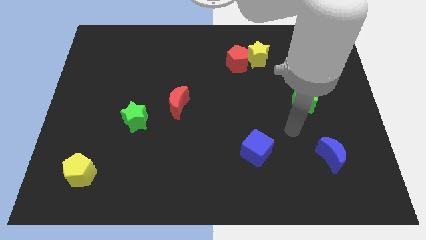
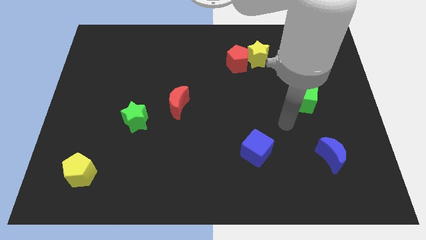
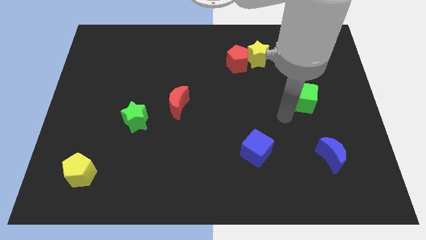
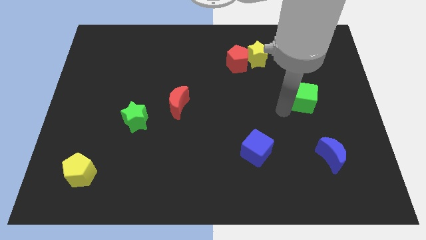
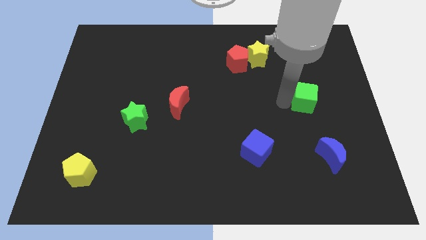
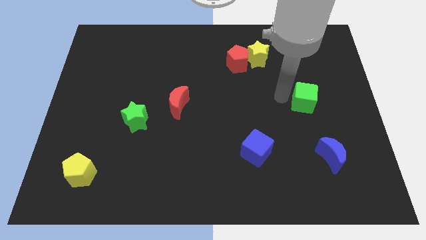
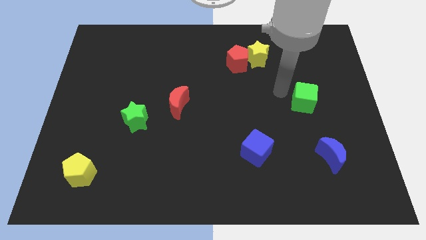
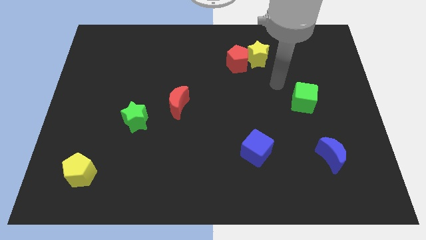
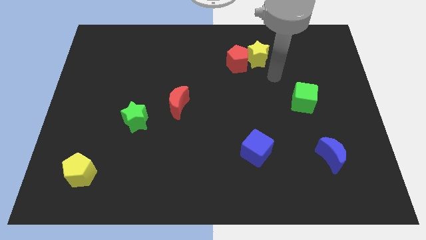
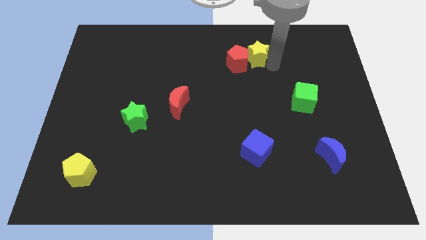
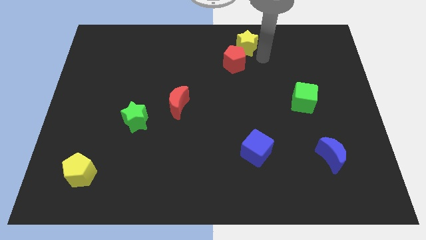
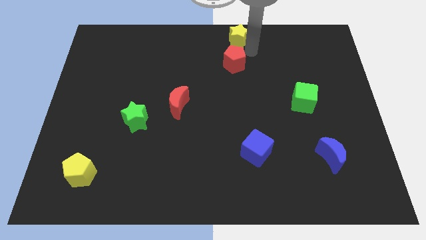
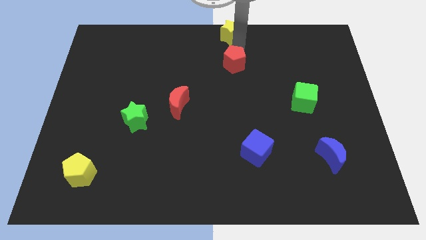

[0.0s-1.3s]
separate the red pentagon from the yellow star

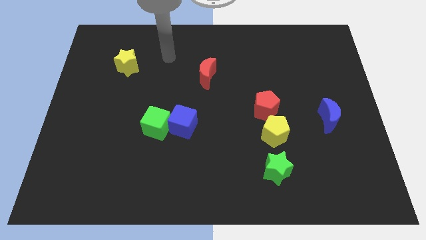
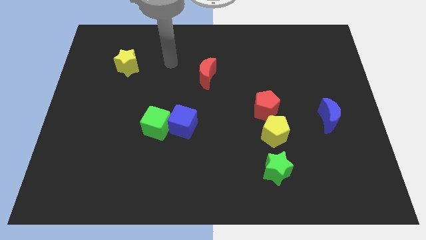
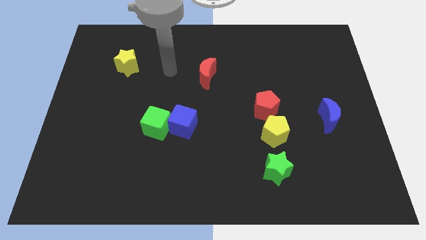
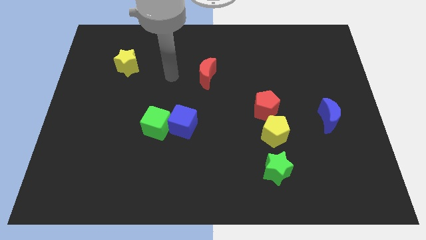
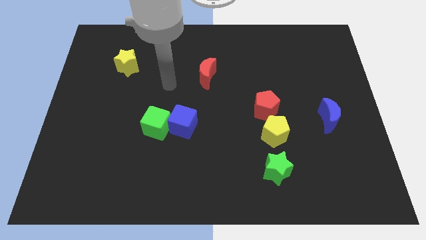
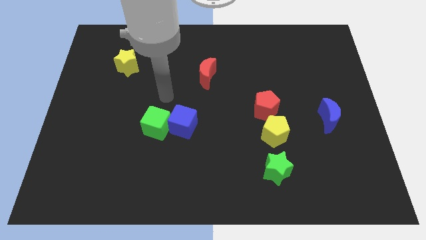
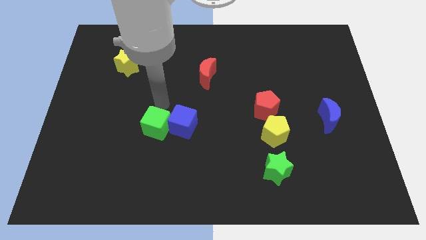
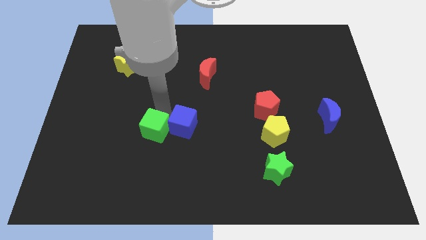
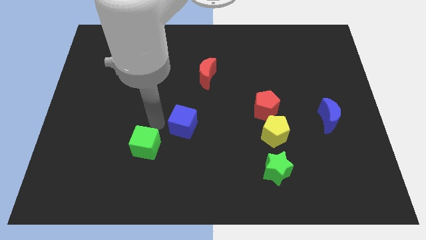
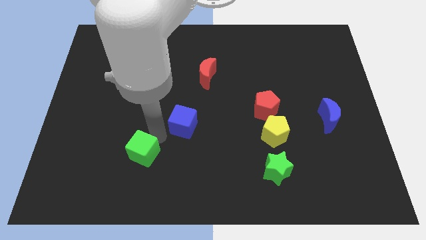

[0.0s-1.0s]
move the blue cube away from the green cube

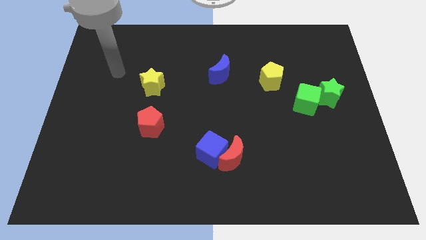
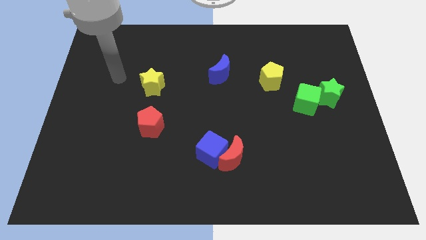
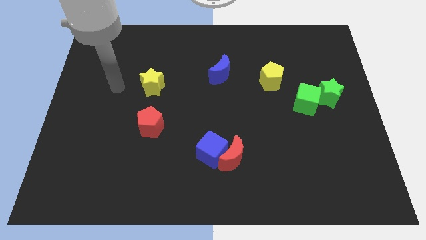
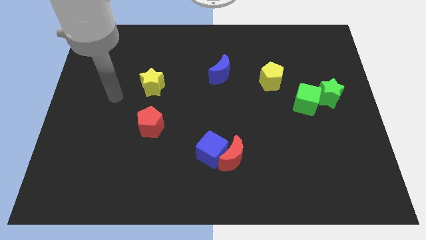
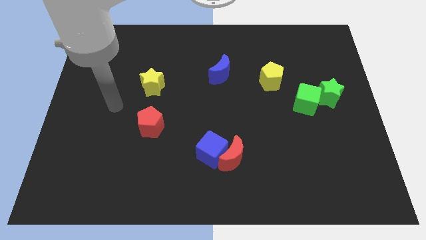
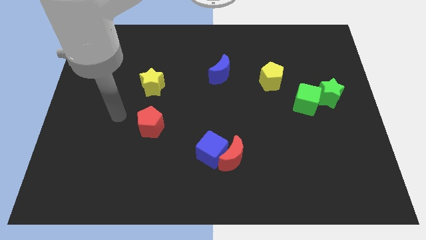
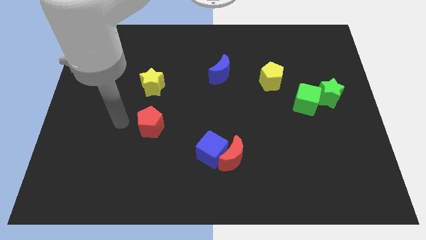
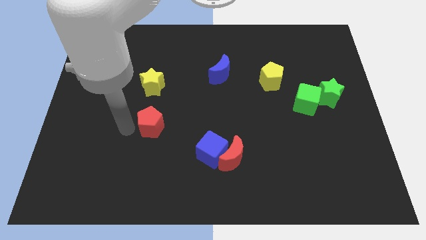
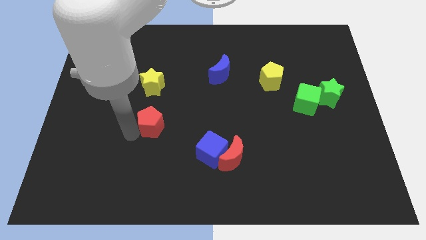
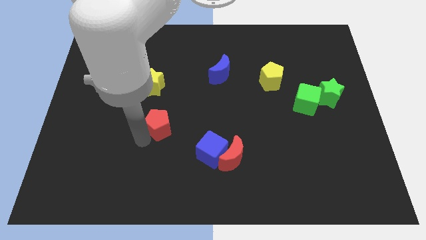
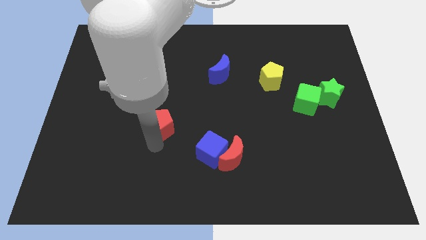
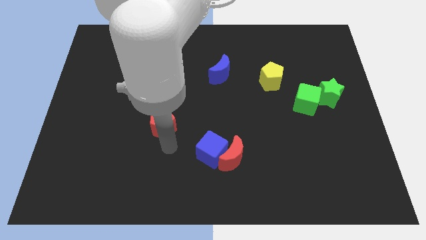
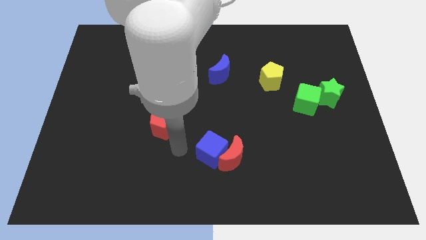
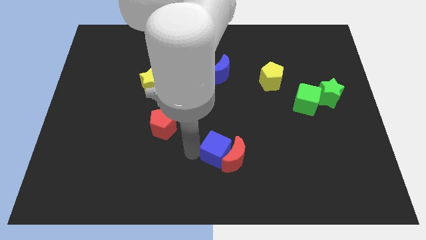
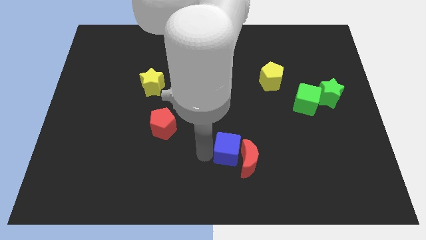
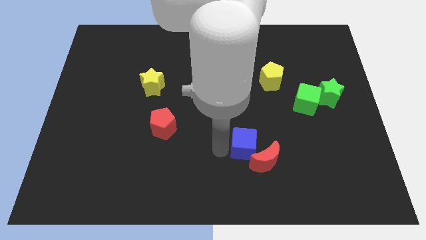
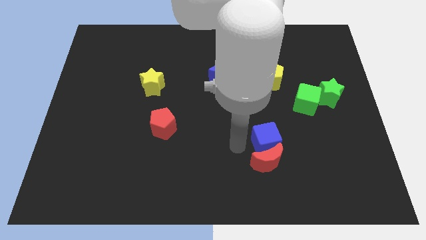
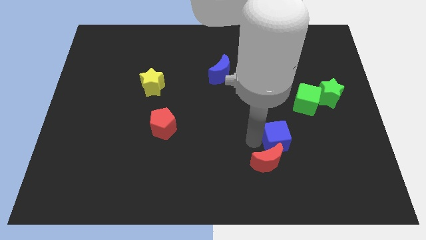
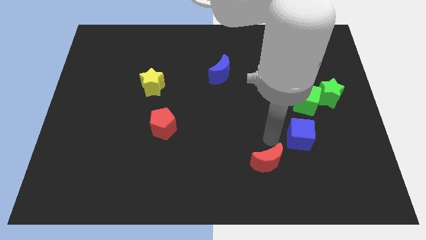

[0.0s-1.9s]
pull the red moon apart from the blue cube

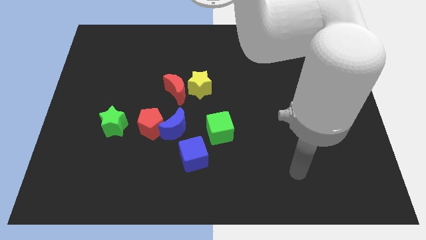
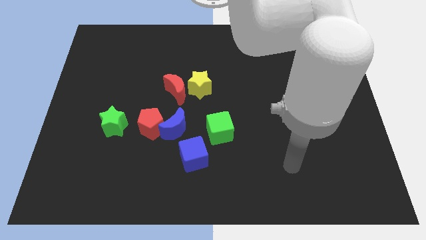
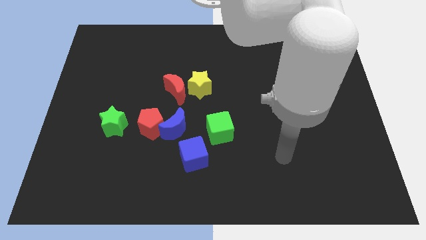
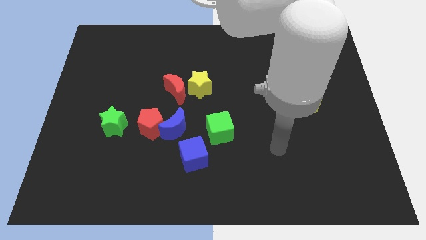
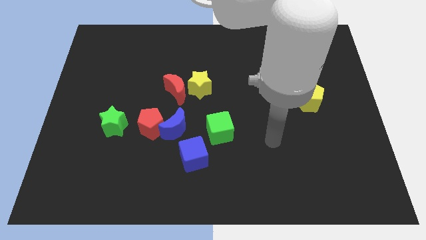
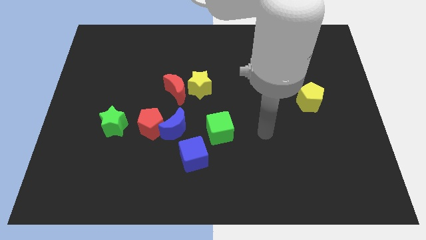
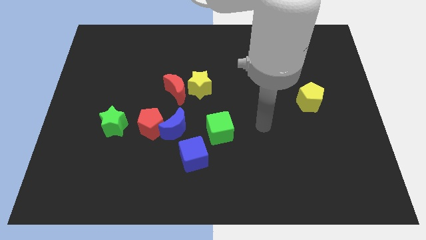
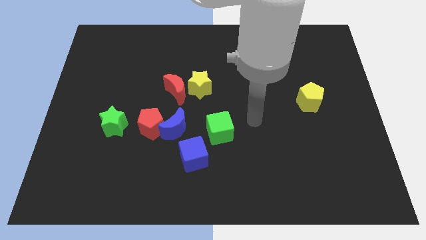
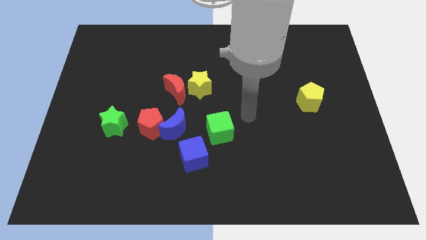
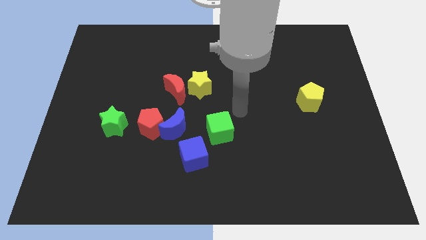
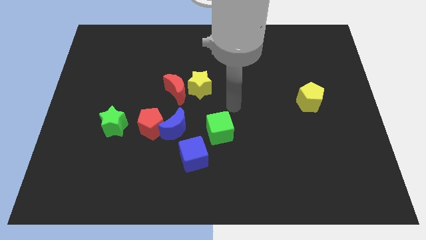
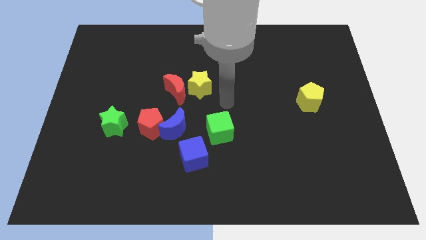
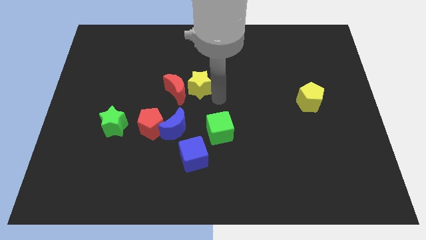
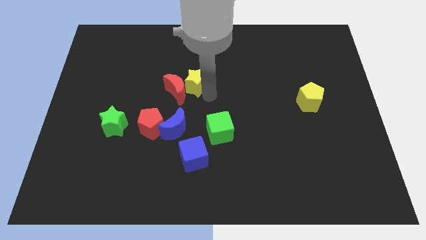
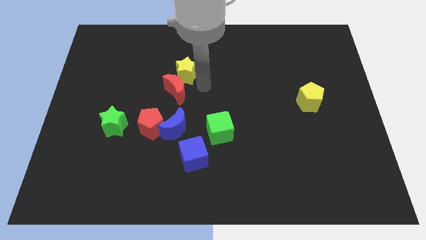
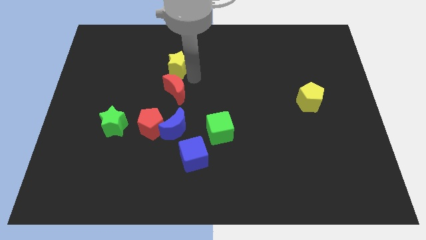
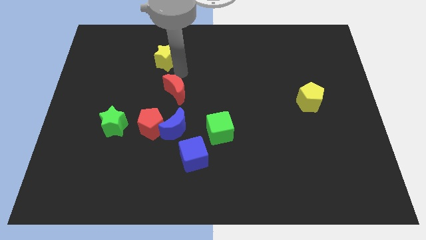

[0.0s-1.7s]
pull the red moon apart from the yellow star

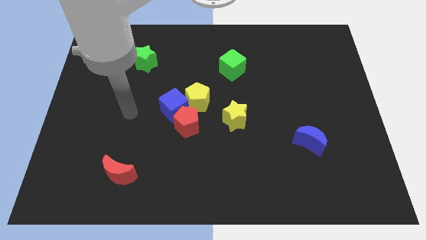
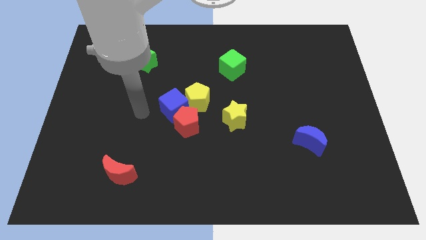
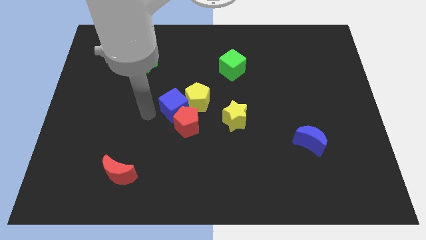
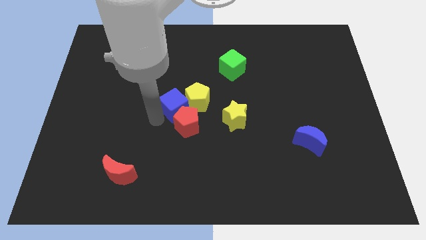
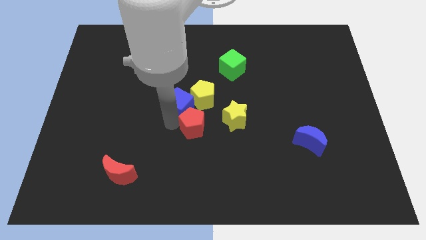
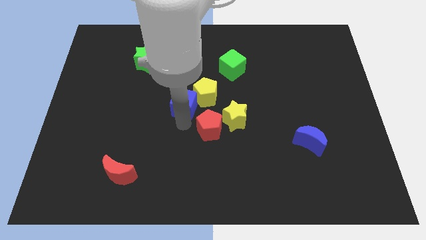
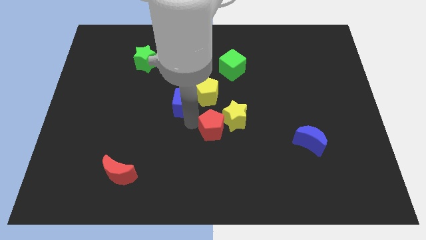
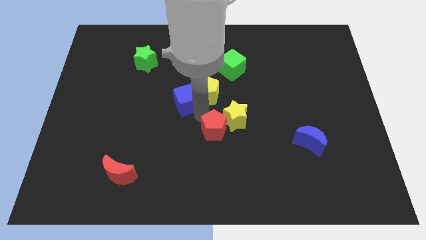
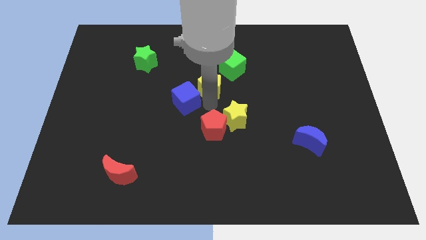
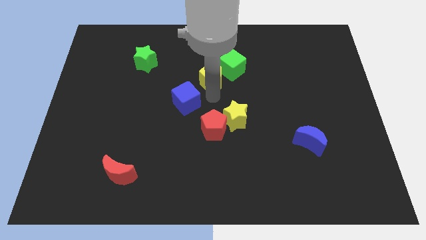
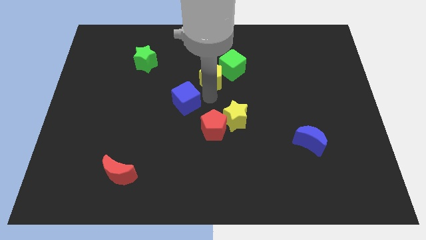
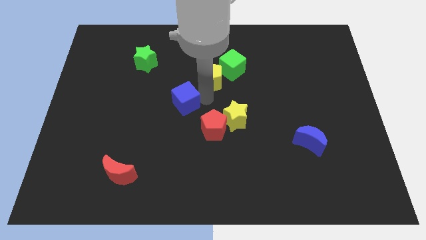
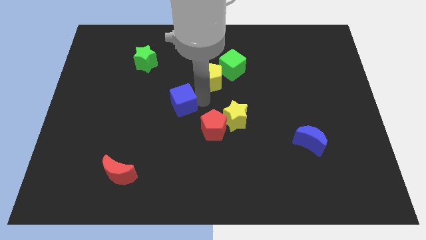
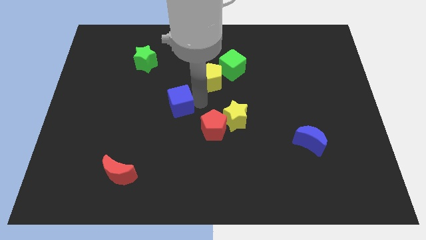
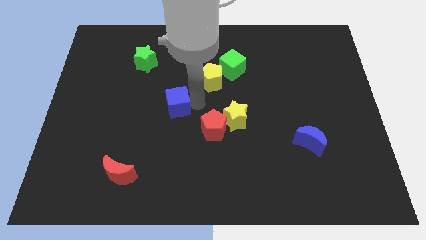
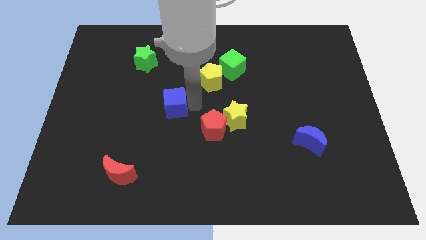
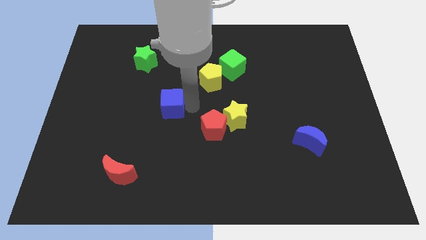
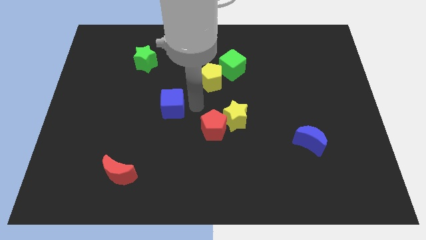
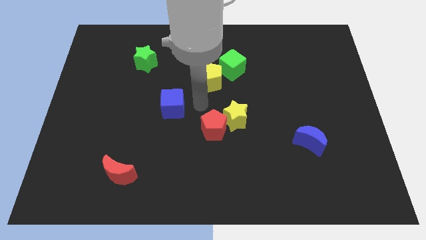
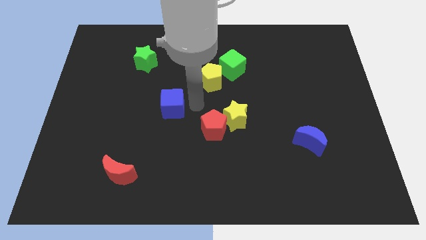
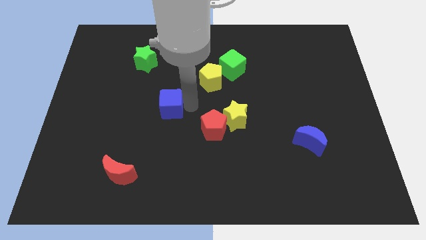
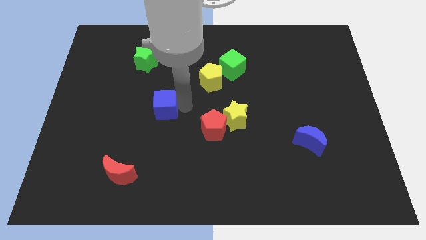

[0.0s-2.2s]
move the blue cube away from the red pentagon and yellow pentagon

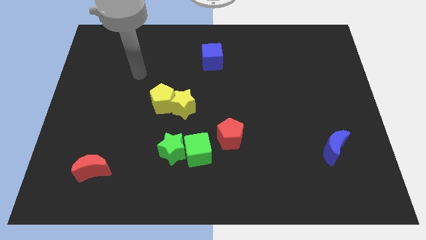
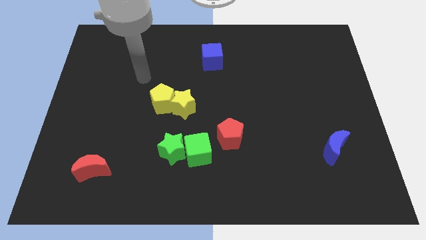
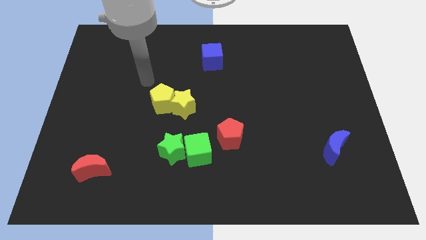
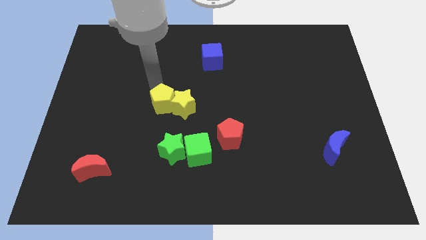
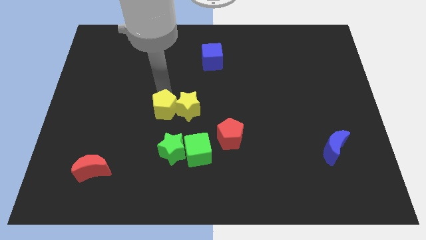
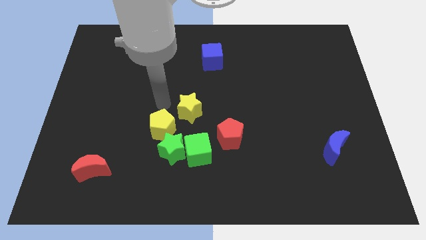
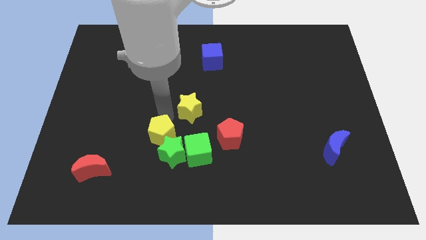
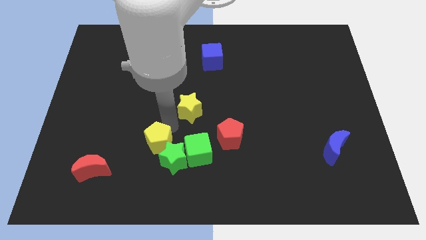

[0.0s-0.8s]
separate the yellow star from the yellow pentagon

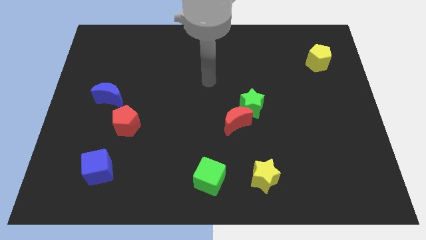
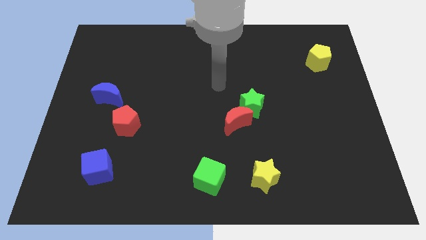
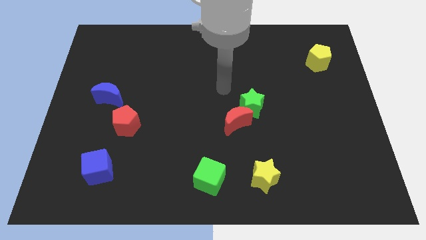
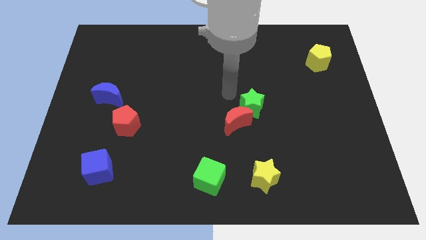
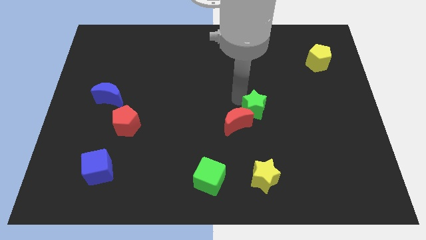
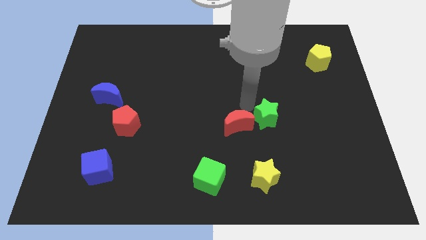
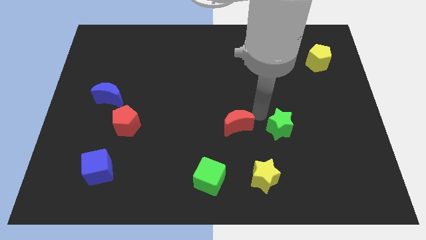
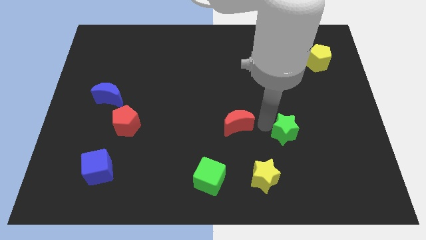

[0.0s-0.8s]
pull the red moon apart from the green star
